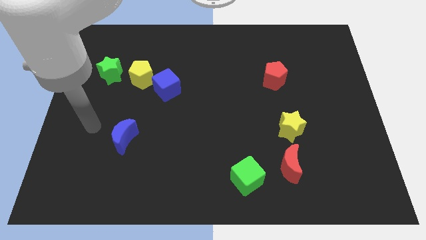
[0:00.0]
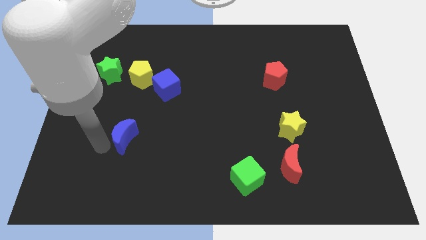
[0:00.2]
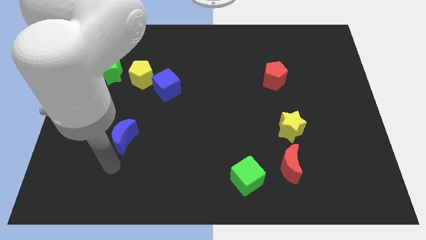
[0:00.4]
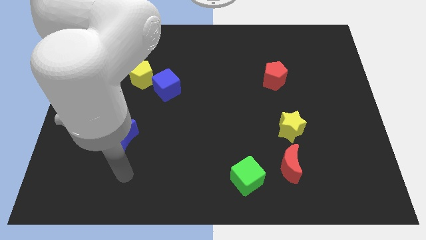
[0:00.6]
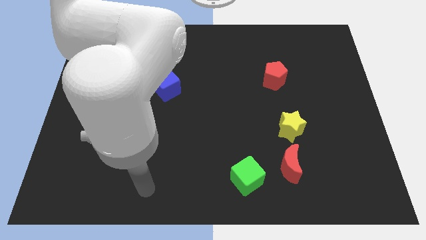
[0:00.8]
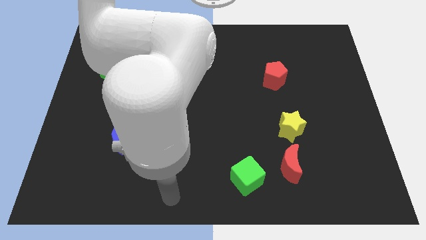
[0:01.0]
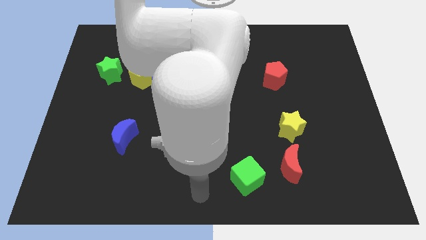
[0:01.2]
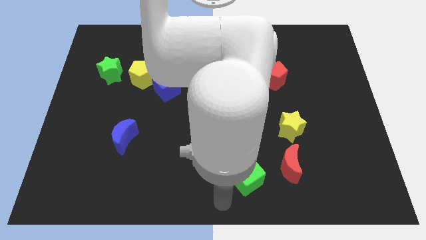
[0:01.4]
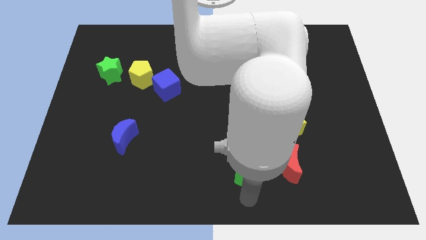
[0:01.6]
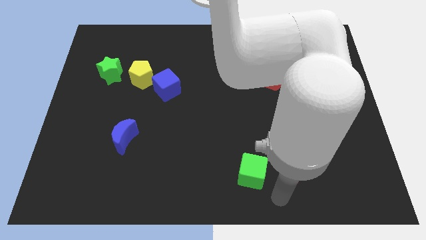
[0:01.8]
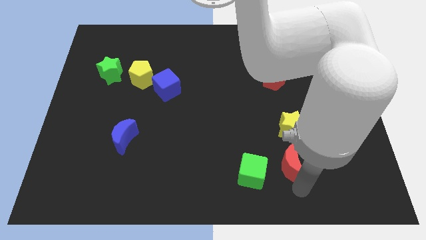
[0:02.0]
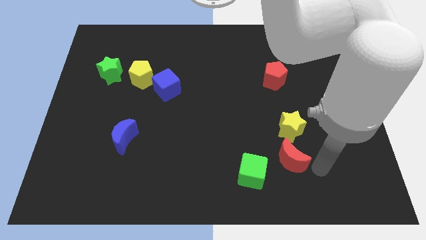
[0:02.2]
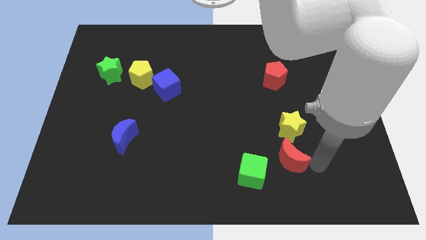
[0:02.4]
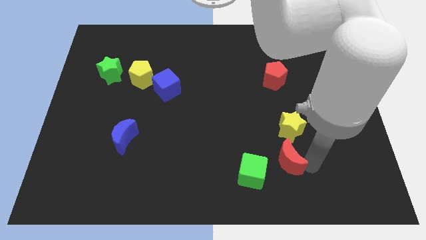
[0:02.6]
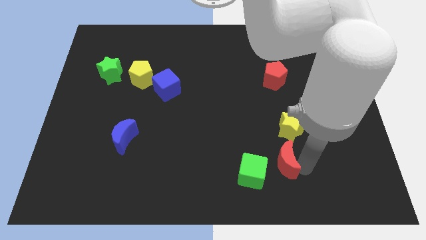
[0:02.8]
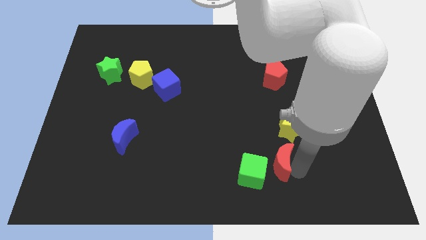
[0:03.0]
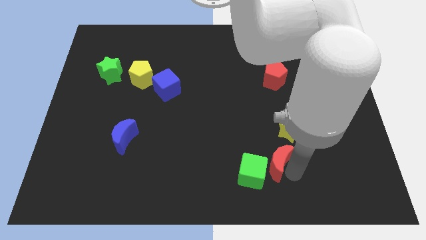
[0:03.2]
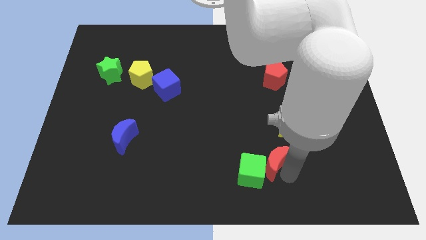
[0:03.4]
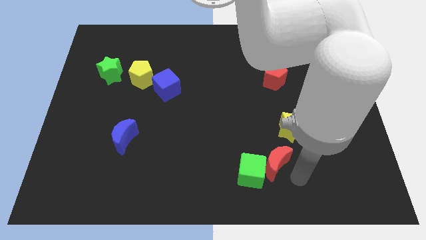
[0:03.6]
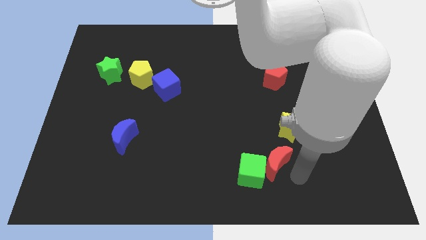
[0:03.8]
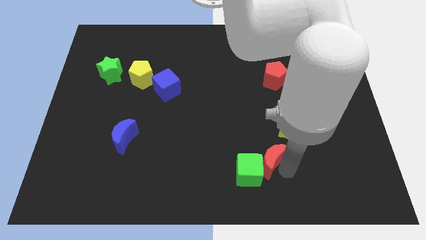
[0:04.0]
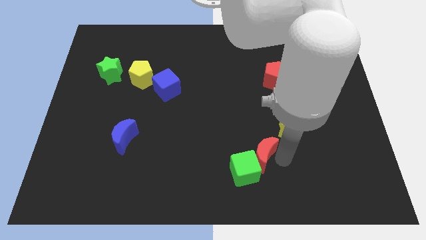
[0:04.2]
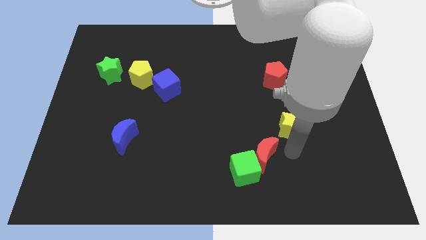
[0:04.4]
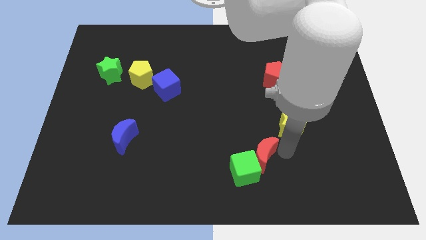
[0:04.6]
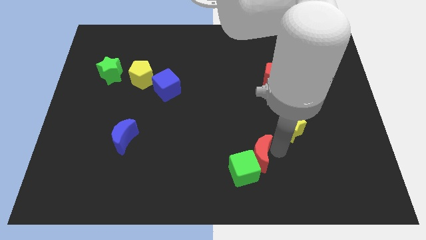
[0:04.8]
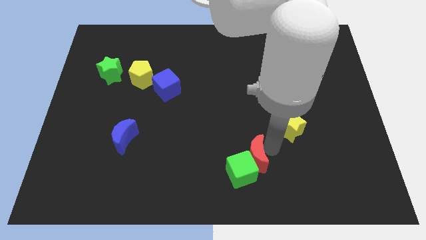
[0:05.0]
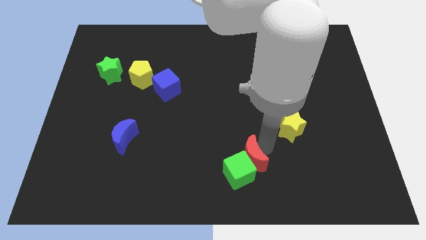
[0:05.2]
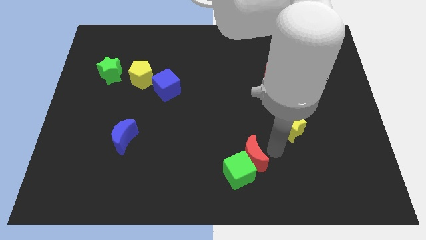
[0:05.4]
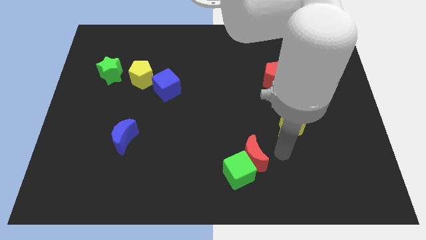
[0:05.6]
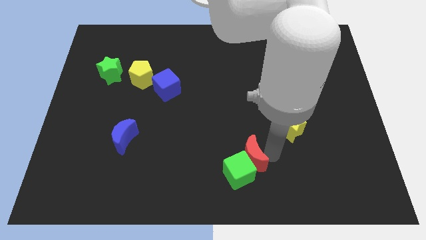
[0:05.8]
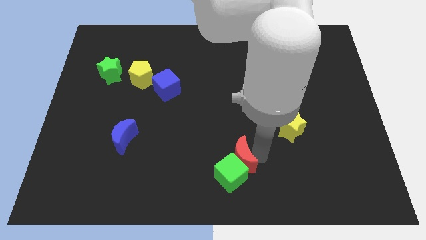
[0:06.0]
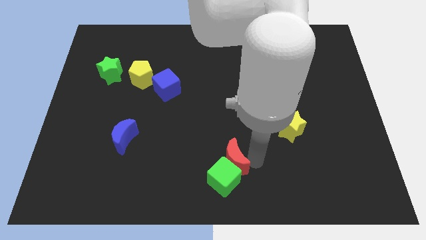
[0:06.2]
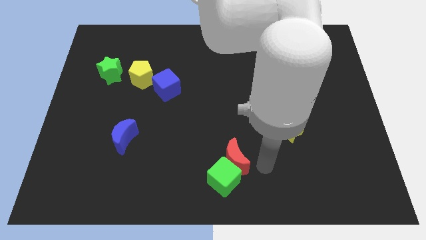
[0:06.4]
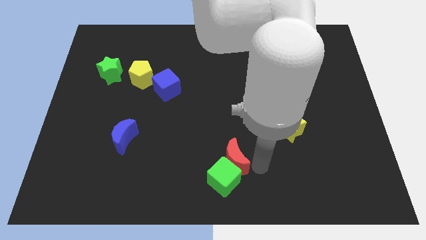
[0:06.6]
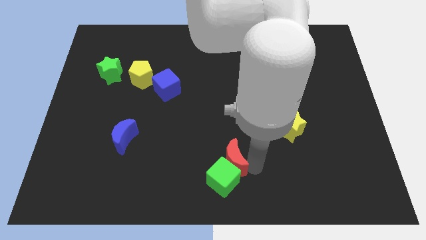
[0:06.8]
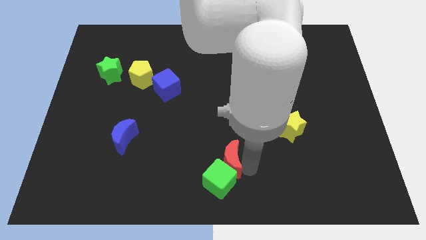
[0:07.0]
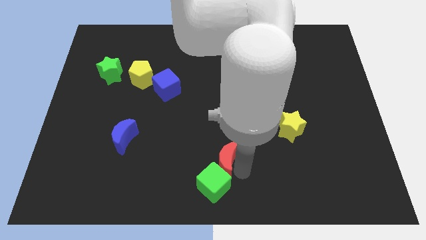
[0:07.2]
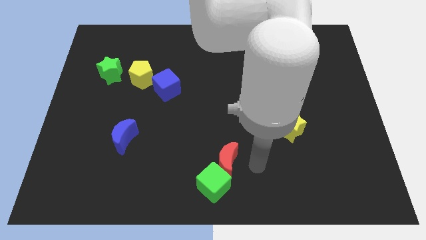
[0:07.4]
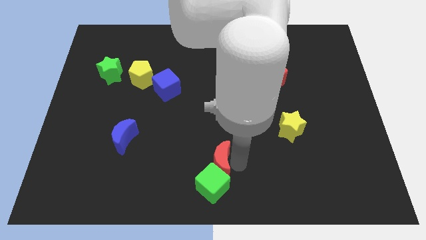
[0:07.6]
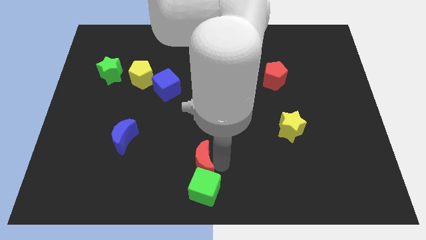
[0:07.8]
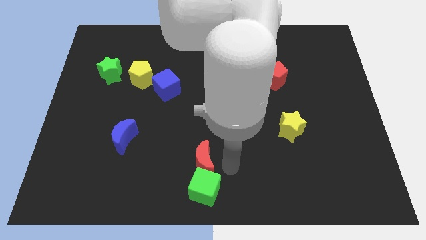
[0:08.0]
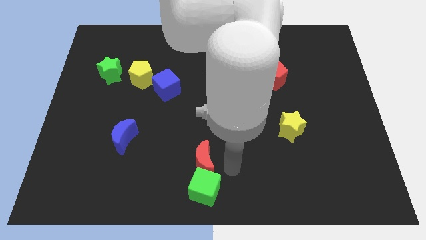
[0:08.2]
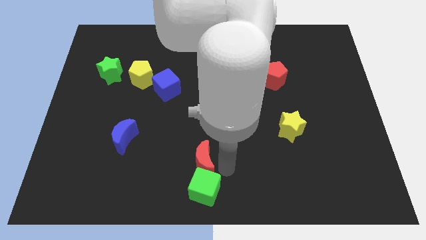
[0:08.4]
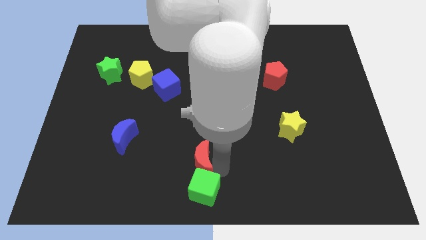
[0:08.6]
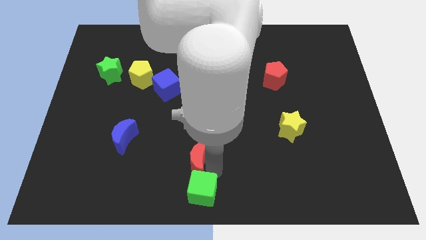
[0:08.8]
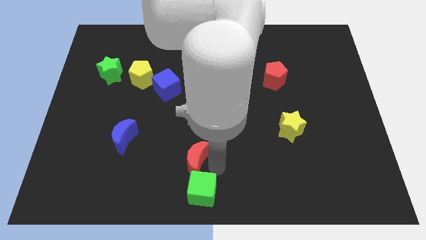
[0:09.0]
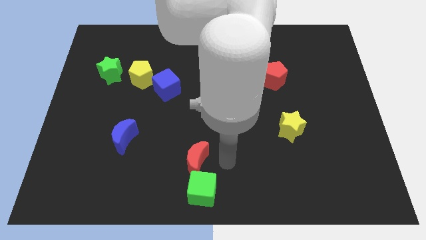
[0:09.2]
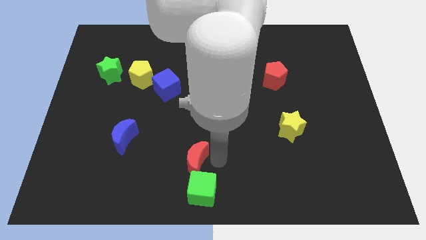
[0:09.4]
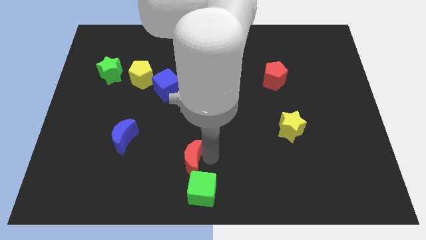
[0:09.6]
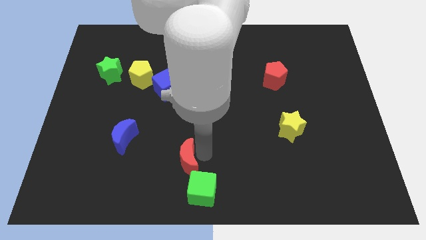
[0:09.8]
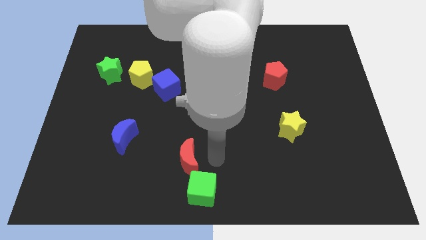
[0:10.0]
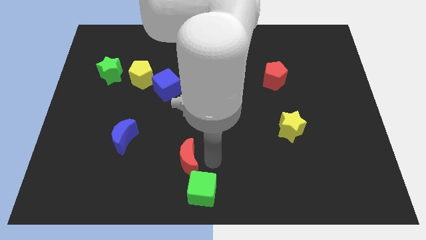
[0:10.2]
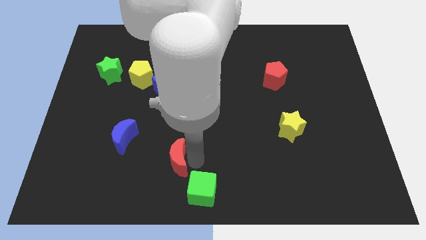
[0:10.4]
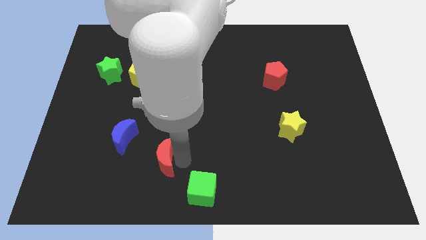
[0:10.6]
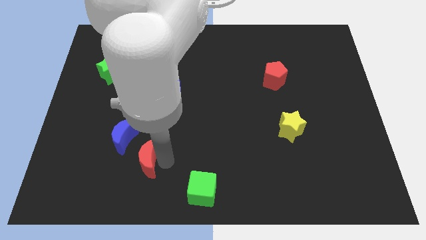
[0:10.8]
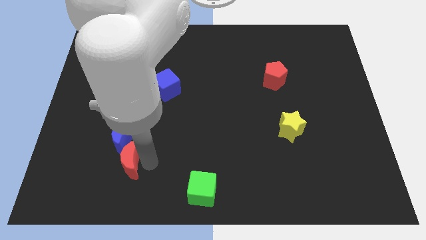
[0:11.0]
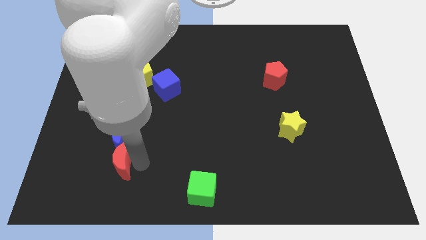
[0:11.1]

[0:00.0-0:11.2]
slide the red moon diagonally down and to the left of the blue moon

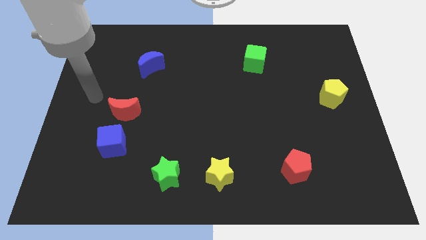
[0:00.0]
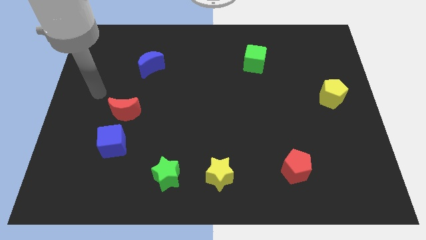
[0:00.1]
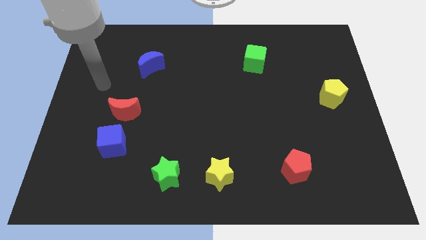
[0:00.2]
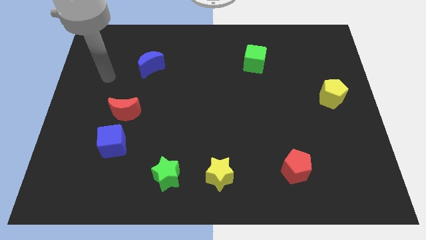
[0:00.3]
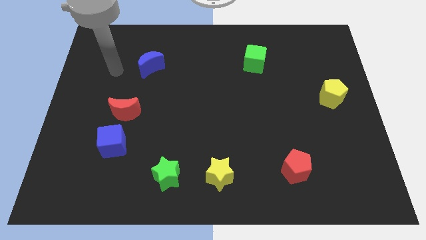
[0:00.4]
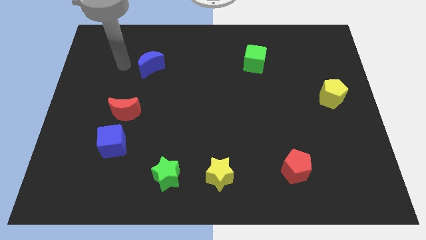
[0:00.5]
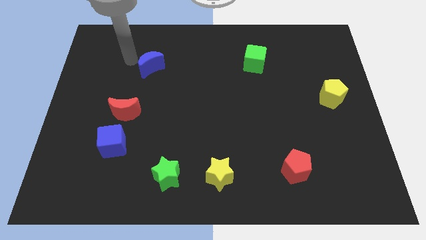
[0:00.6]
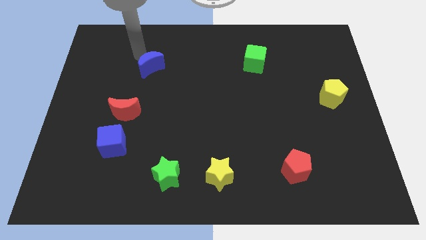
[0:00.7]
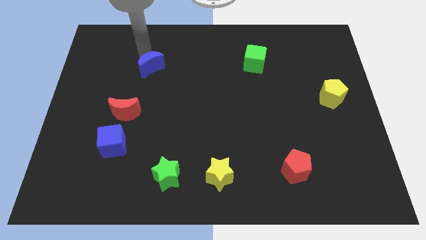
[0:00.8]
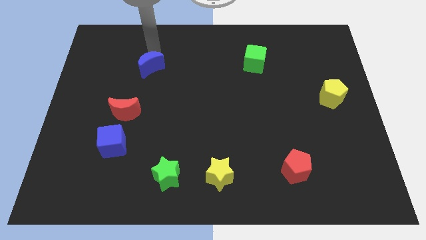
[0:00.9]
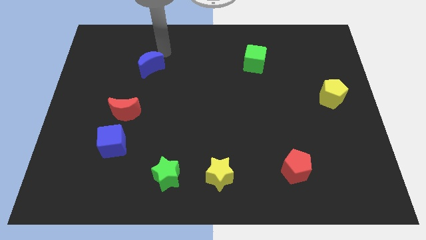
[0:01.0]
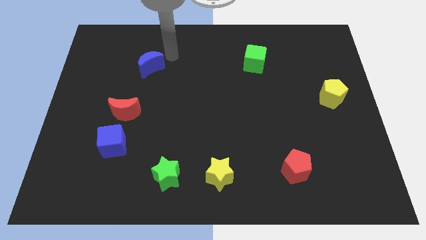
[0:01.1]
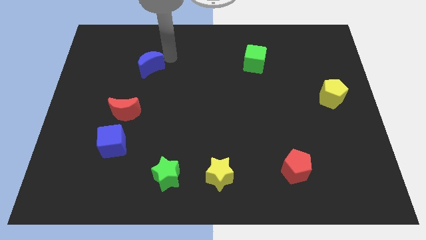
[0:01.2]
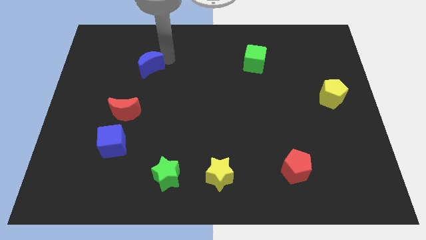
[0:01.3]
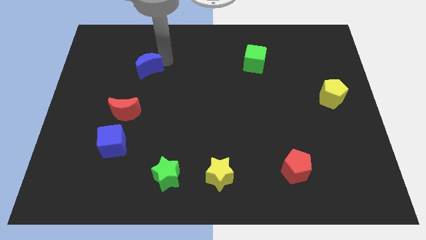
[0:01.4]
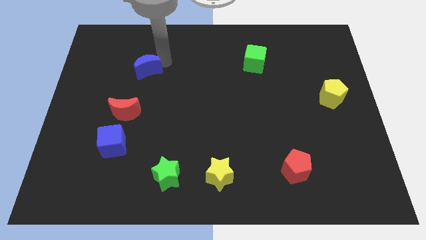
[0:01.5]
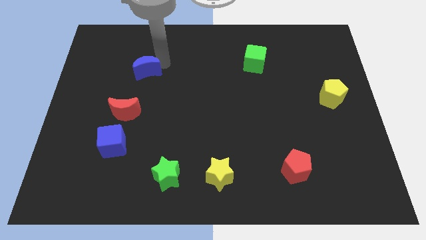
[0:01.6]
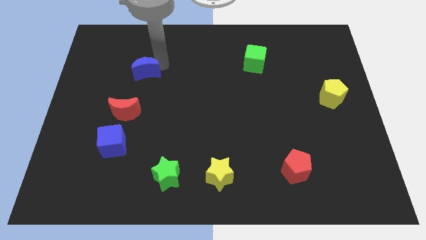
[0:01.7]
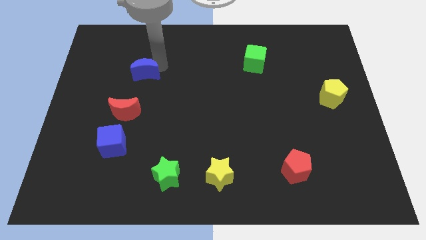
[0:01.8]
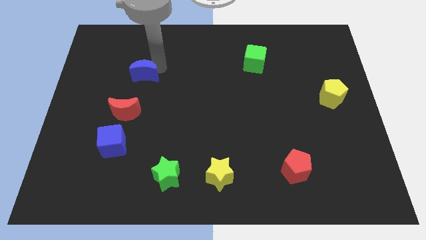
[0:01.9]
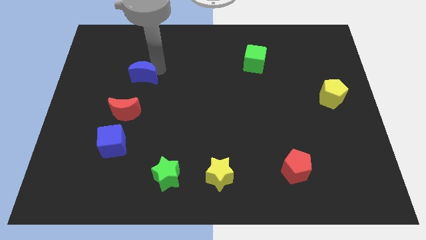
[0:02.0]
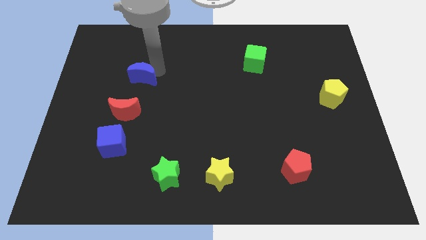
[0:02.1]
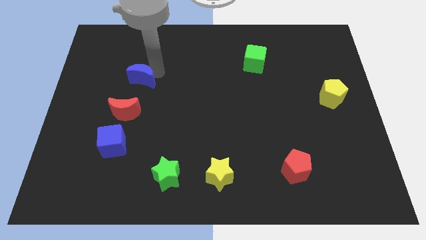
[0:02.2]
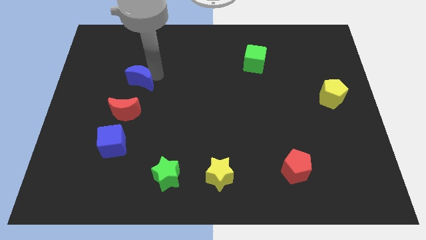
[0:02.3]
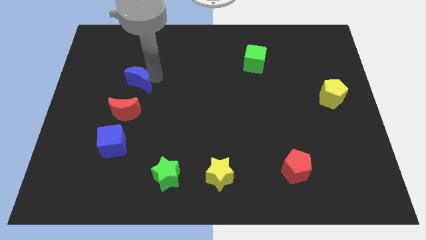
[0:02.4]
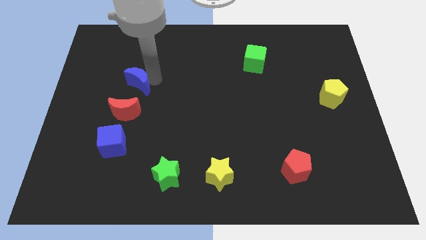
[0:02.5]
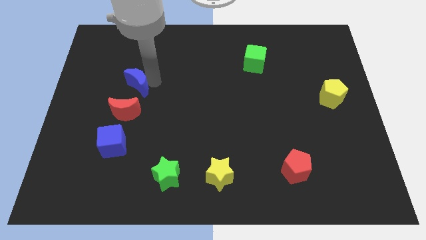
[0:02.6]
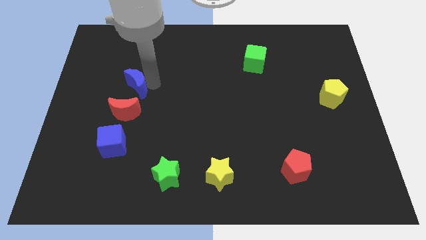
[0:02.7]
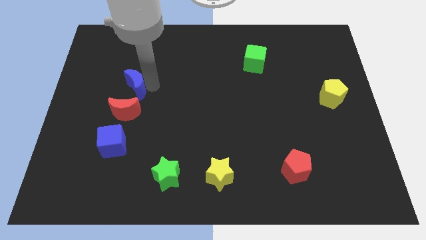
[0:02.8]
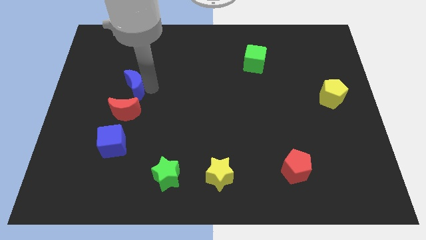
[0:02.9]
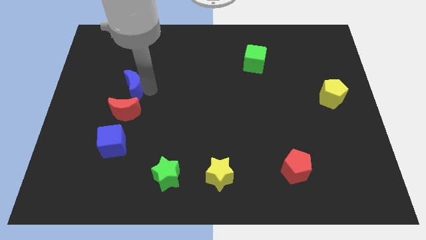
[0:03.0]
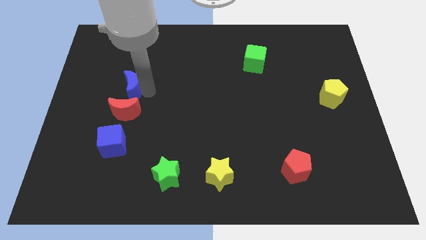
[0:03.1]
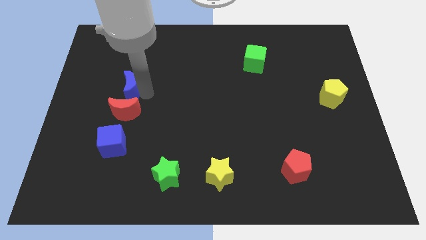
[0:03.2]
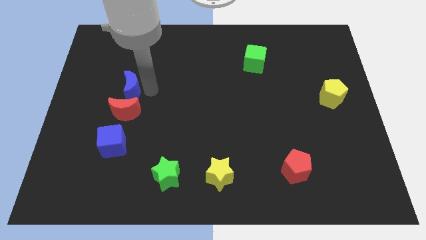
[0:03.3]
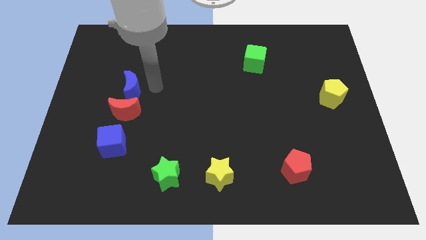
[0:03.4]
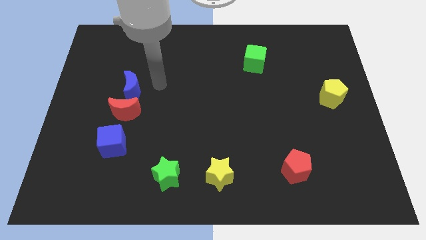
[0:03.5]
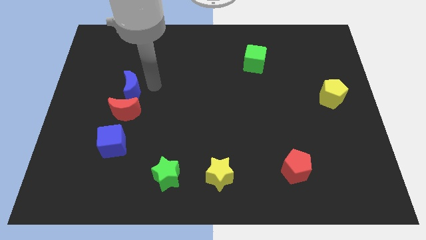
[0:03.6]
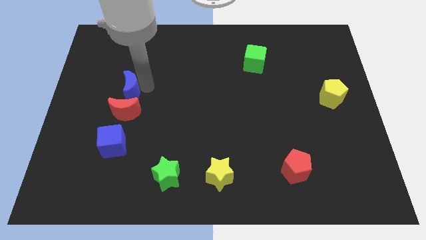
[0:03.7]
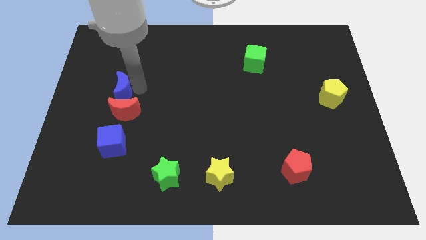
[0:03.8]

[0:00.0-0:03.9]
slide the blue moon to the top left side of the red moon
